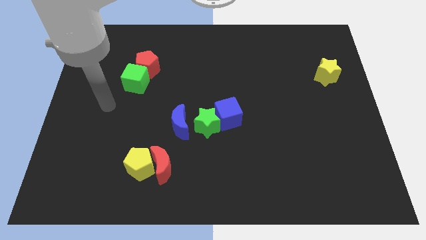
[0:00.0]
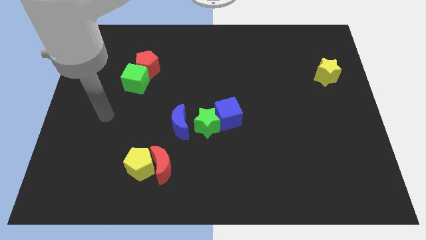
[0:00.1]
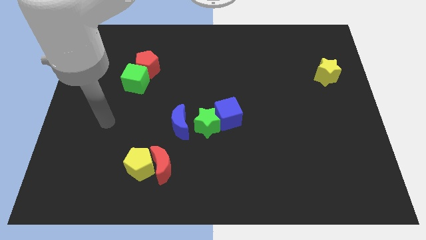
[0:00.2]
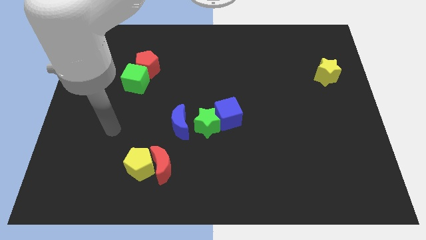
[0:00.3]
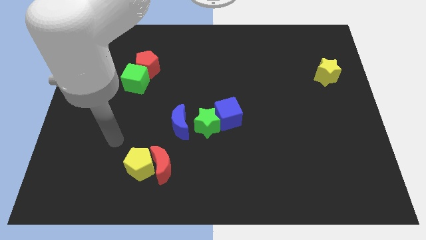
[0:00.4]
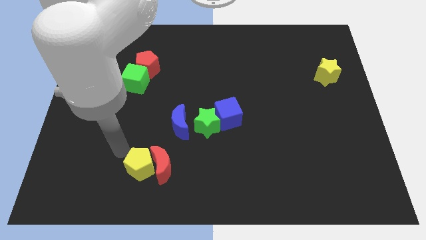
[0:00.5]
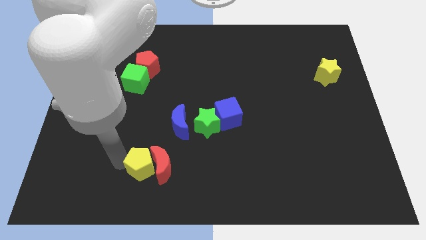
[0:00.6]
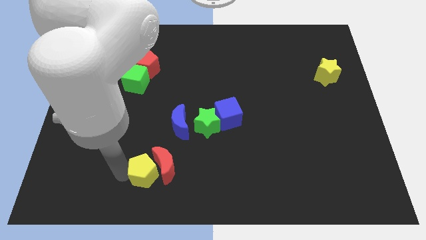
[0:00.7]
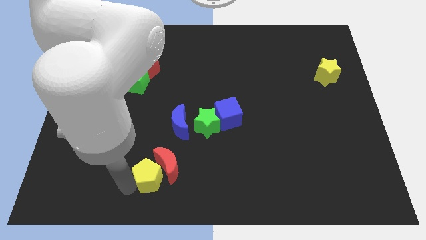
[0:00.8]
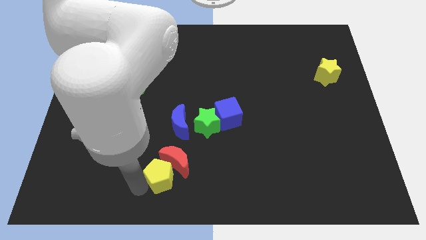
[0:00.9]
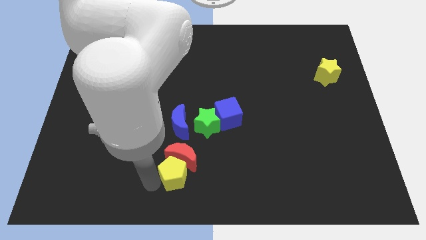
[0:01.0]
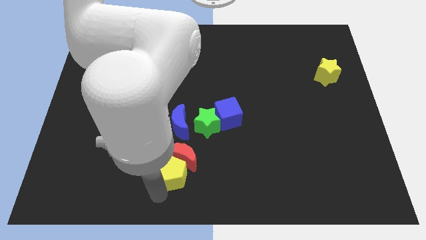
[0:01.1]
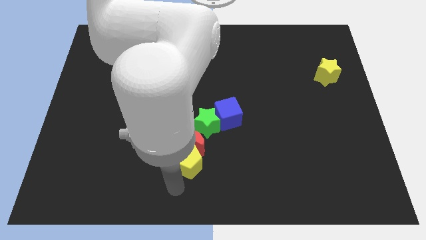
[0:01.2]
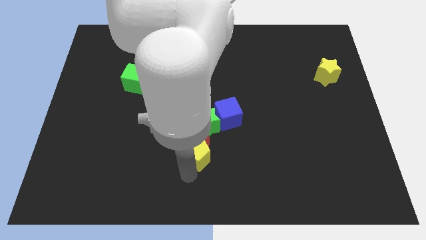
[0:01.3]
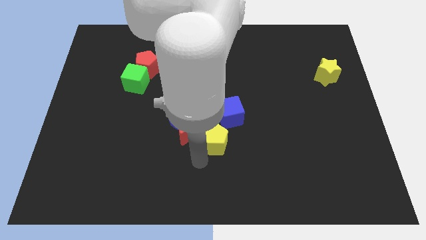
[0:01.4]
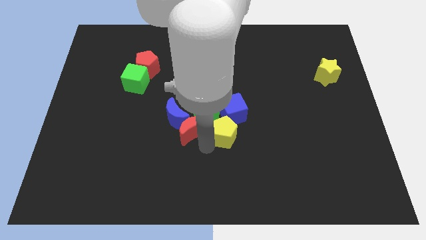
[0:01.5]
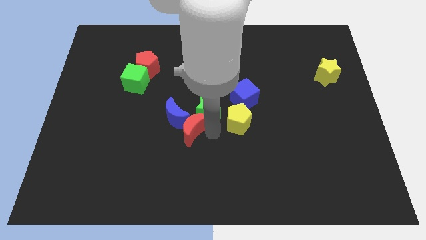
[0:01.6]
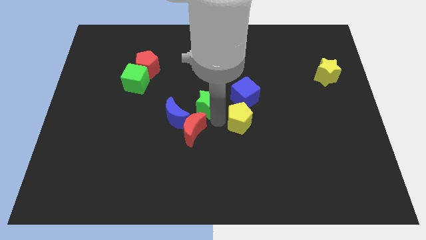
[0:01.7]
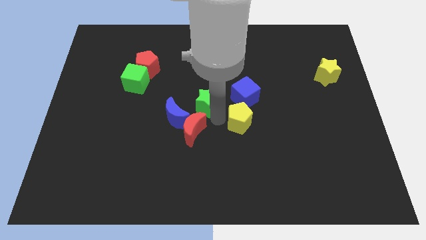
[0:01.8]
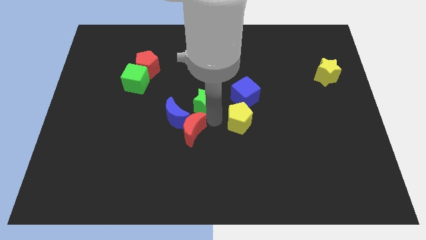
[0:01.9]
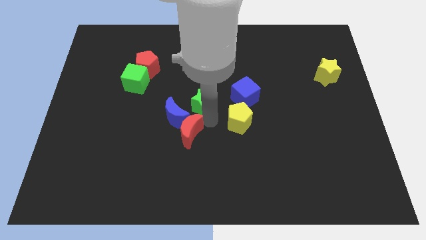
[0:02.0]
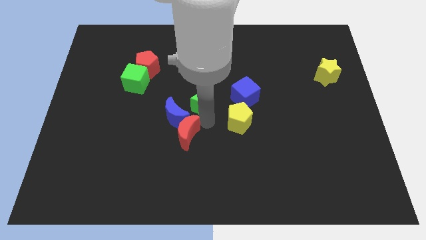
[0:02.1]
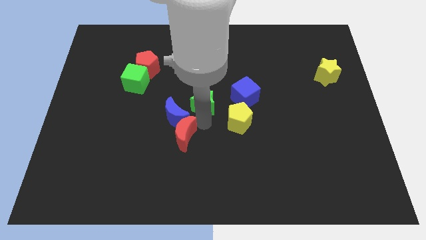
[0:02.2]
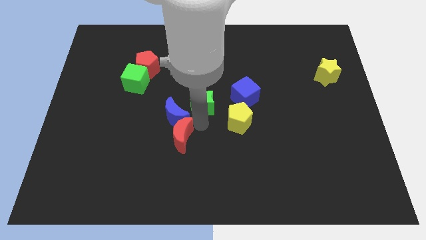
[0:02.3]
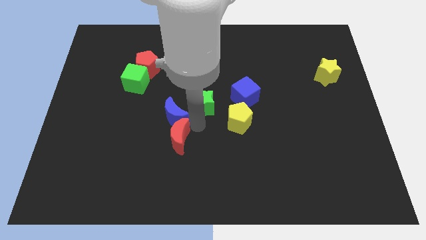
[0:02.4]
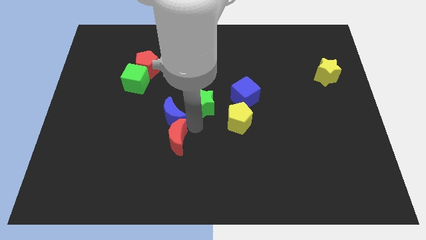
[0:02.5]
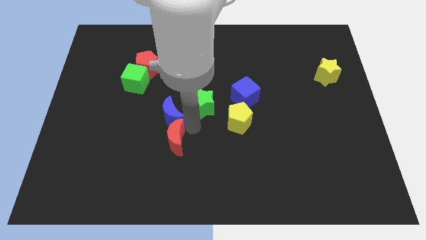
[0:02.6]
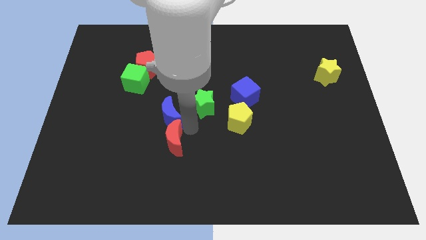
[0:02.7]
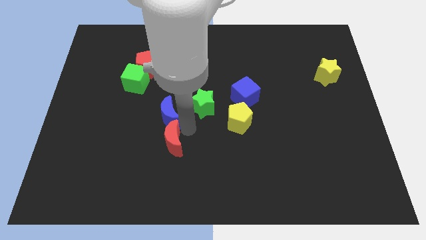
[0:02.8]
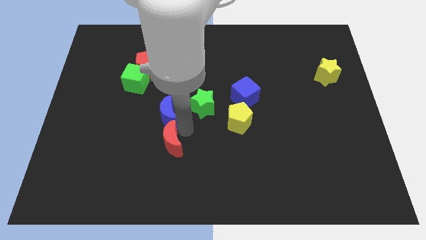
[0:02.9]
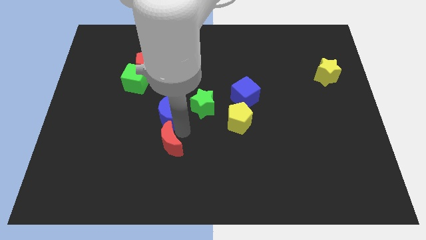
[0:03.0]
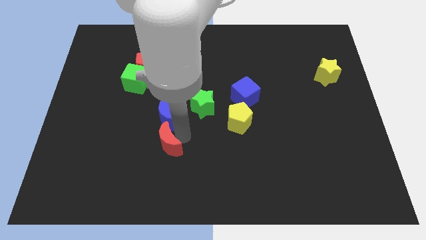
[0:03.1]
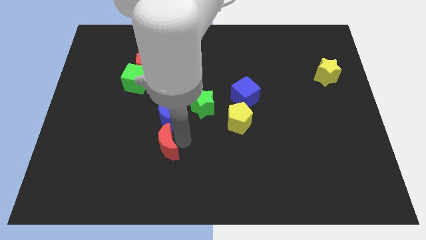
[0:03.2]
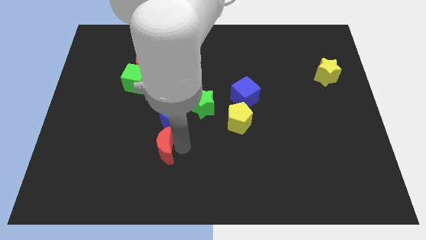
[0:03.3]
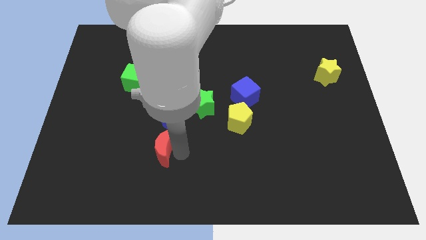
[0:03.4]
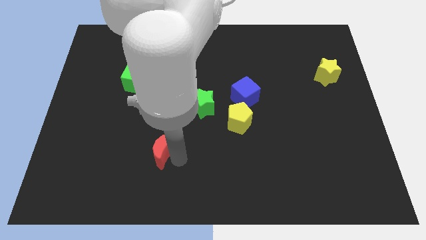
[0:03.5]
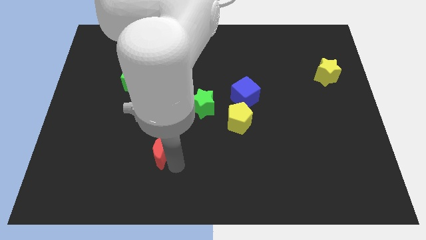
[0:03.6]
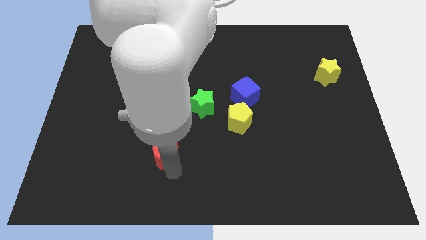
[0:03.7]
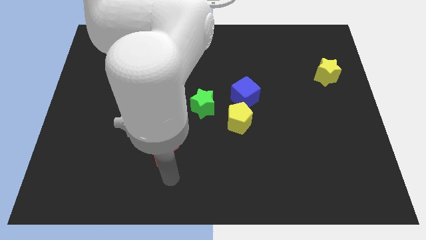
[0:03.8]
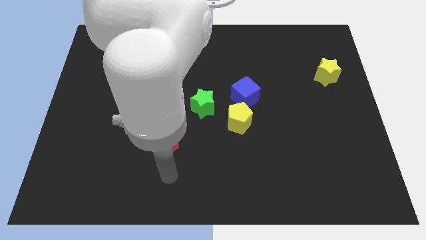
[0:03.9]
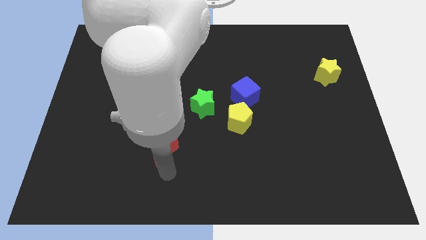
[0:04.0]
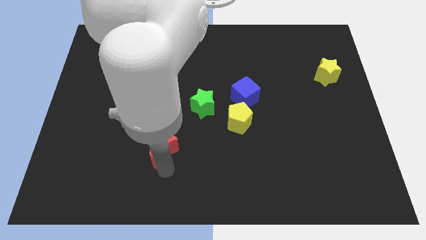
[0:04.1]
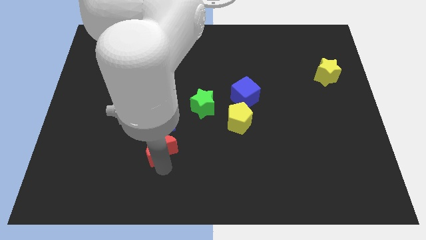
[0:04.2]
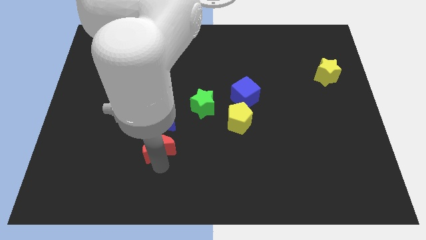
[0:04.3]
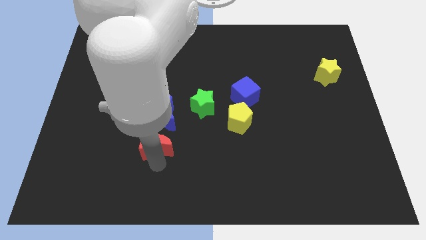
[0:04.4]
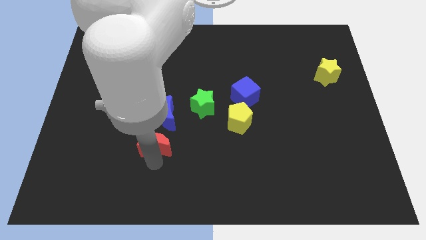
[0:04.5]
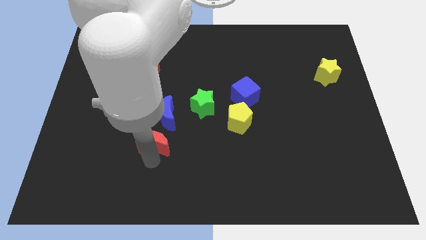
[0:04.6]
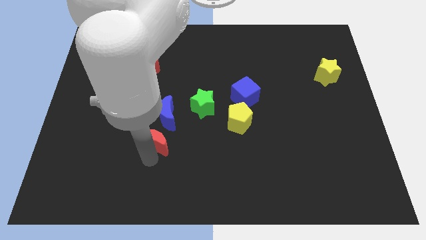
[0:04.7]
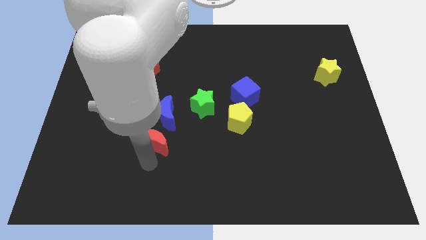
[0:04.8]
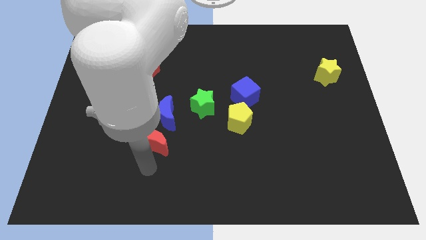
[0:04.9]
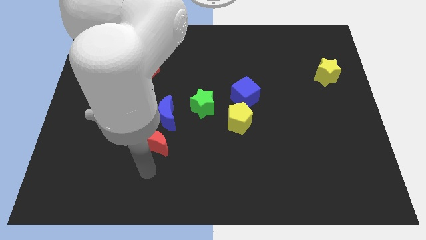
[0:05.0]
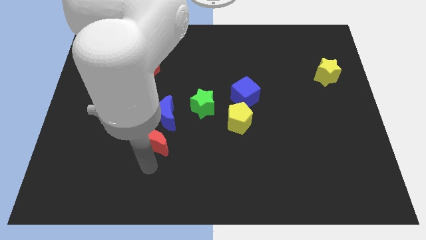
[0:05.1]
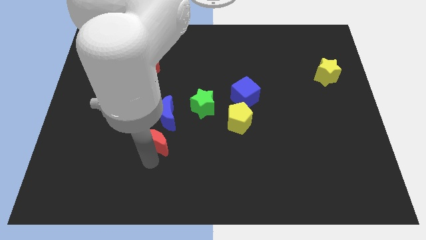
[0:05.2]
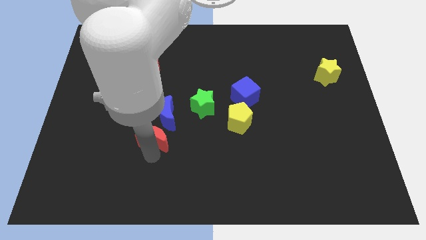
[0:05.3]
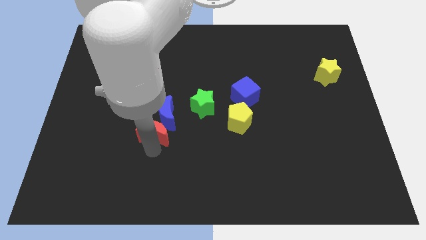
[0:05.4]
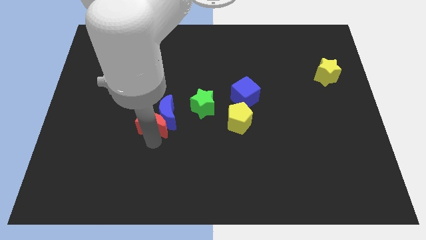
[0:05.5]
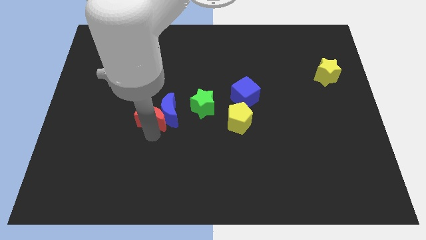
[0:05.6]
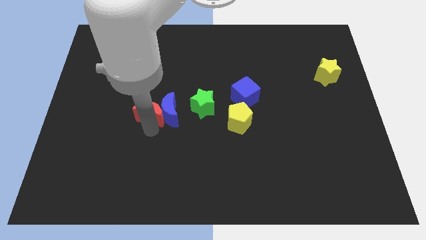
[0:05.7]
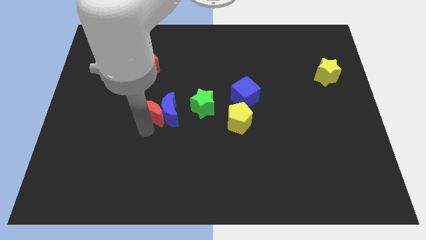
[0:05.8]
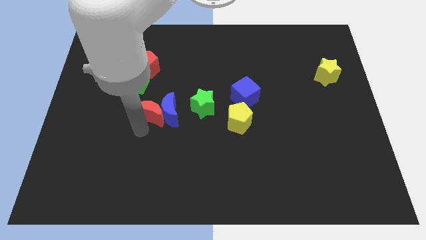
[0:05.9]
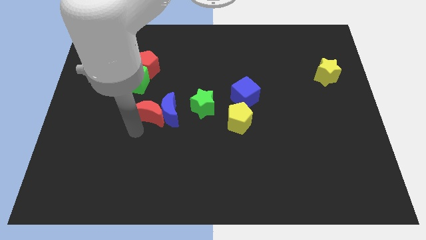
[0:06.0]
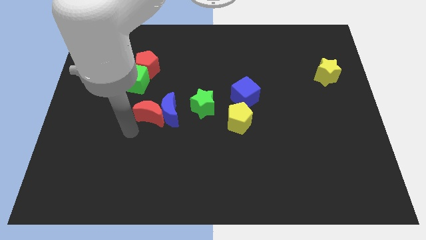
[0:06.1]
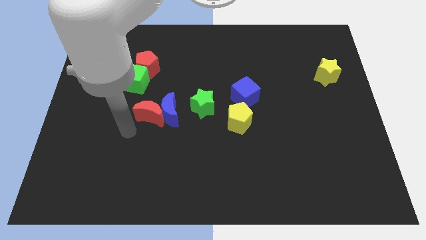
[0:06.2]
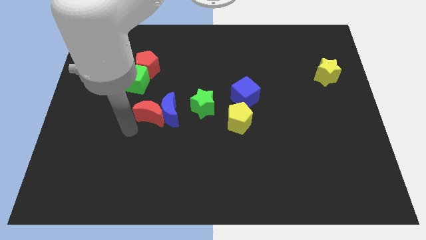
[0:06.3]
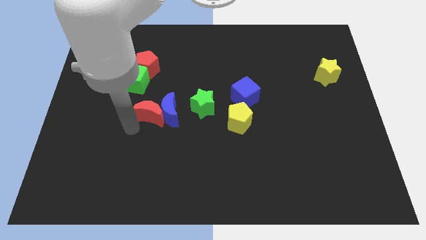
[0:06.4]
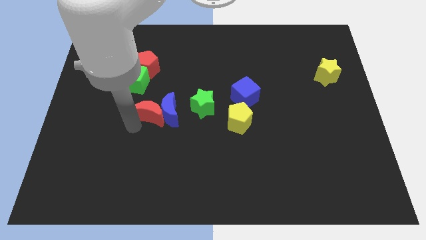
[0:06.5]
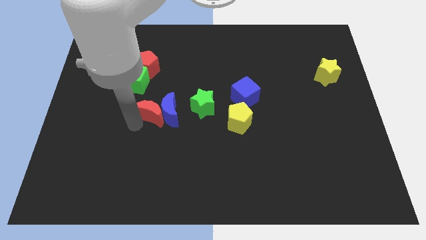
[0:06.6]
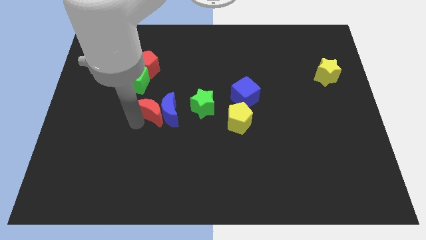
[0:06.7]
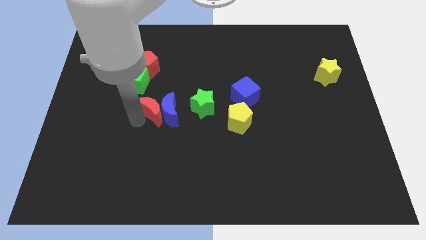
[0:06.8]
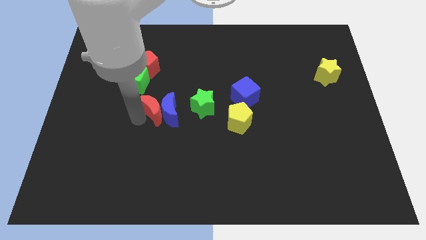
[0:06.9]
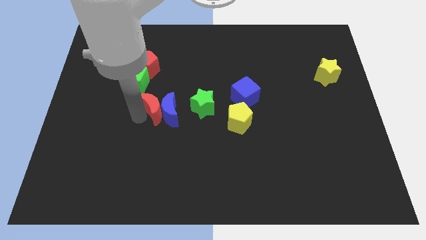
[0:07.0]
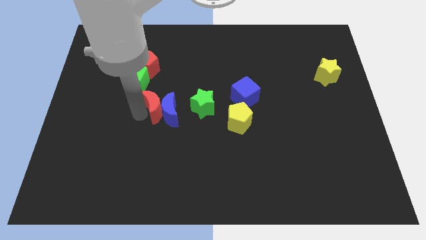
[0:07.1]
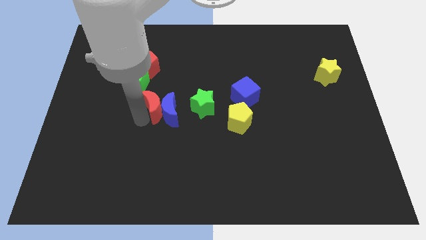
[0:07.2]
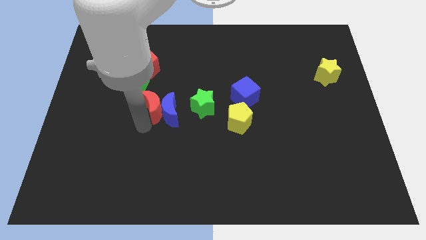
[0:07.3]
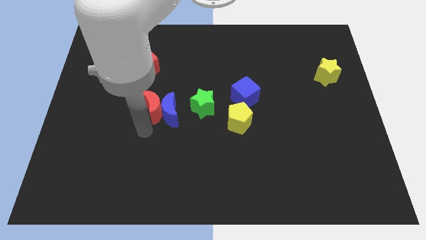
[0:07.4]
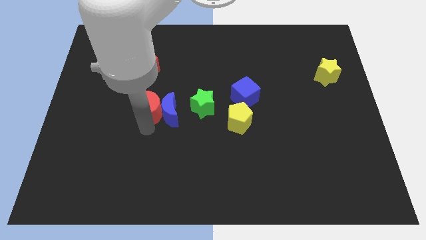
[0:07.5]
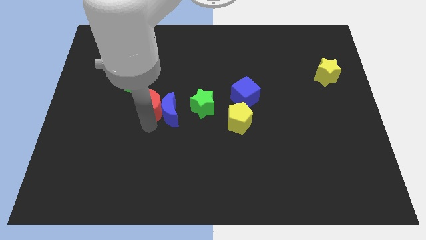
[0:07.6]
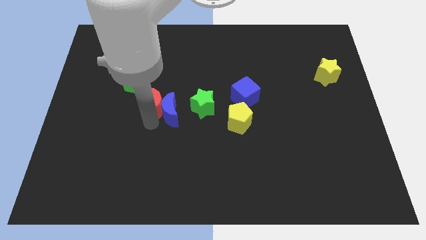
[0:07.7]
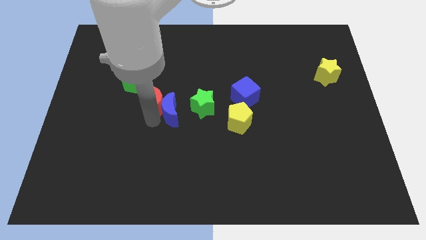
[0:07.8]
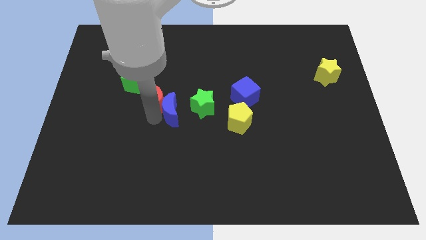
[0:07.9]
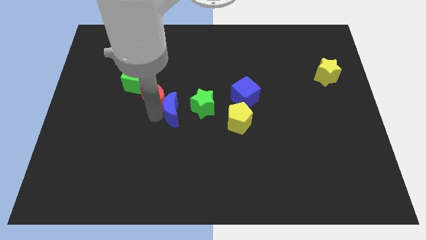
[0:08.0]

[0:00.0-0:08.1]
slide the red moon to the bottom right of the red pentagon
